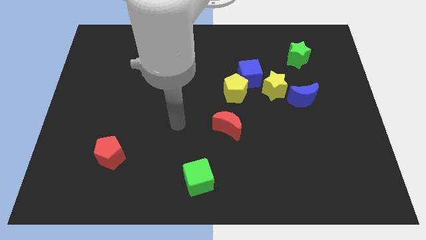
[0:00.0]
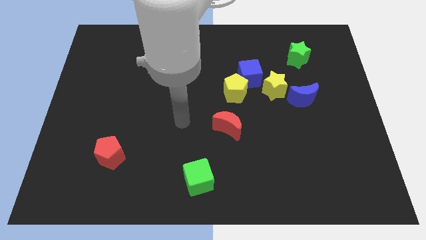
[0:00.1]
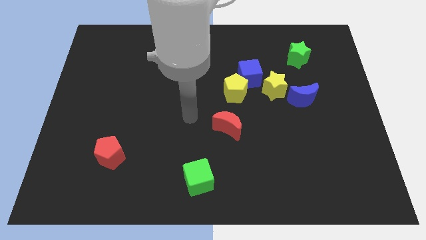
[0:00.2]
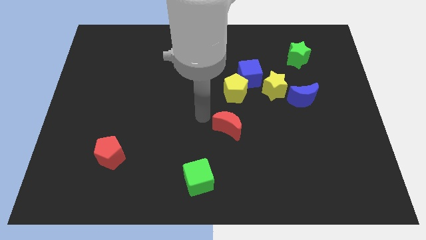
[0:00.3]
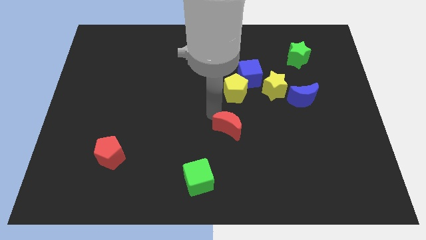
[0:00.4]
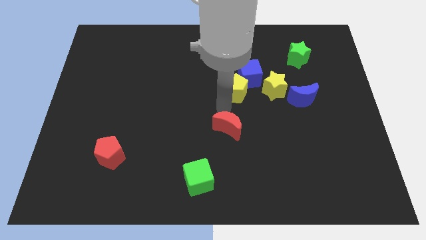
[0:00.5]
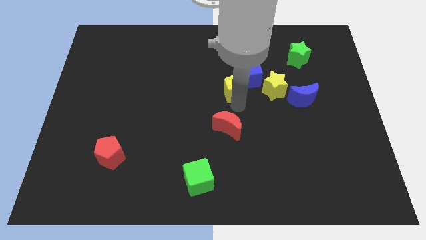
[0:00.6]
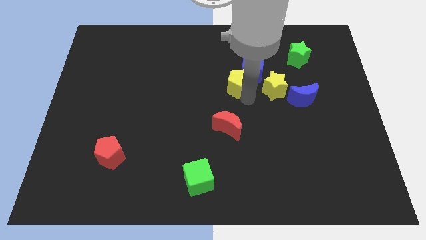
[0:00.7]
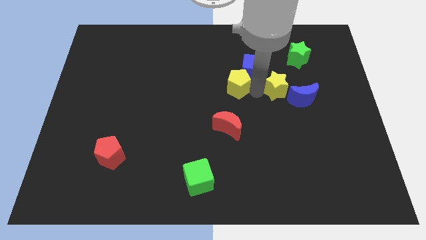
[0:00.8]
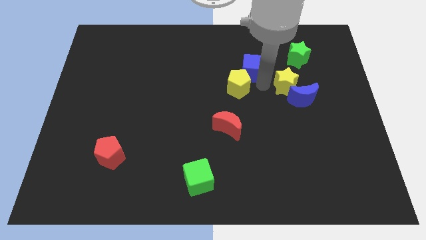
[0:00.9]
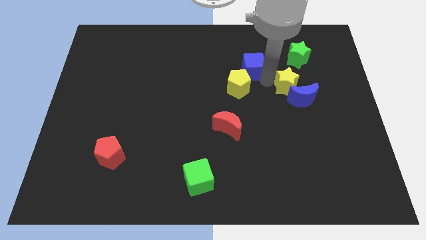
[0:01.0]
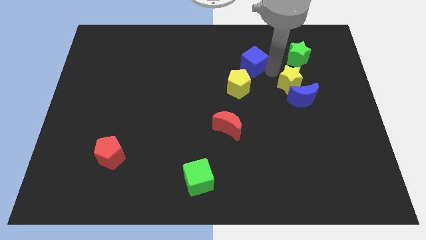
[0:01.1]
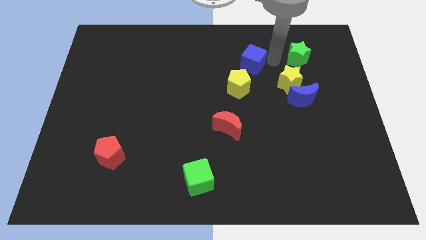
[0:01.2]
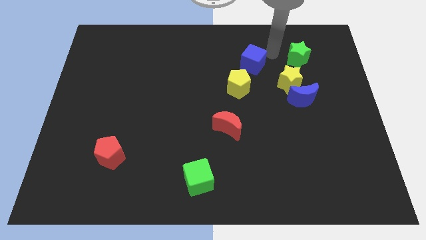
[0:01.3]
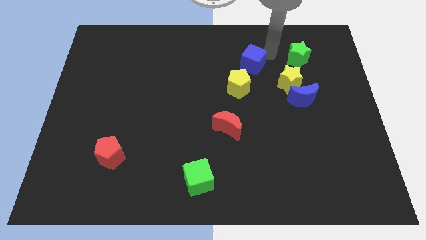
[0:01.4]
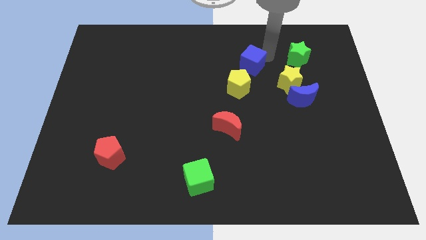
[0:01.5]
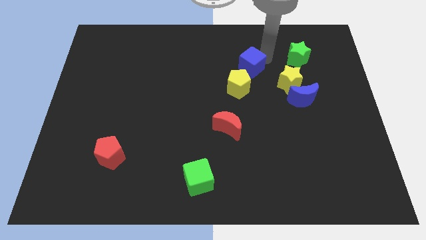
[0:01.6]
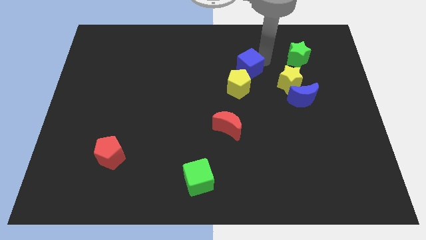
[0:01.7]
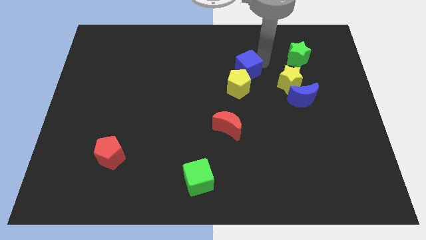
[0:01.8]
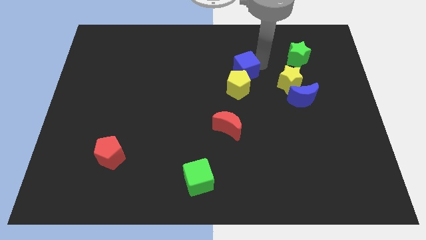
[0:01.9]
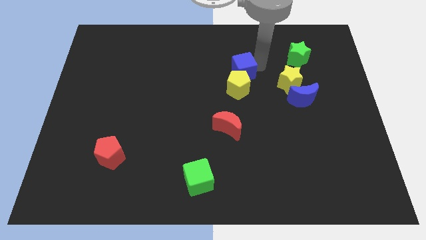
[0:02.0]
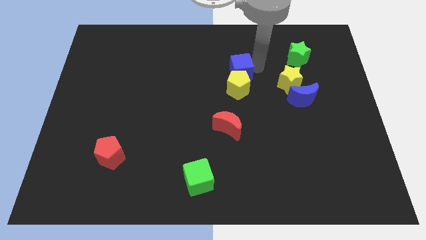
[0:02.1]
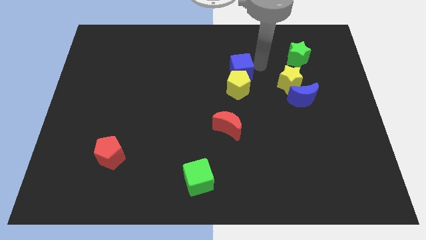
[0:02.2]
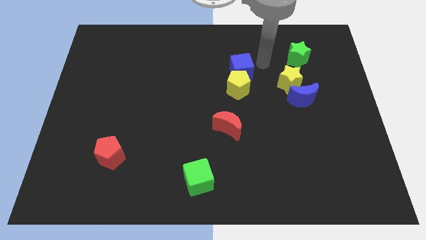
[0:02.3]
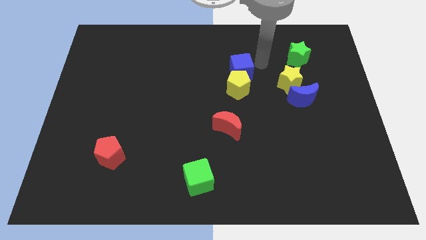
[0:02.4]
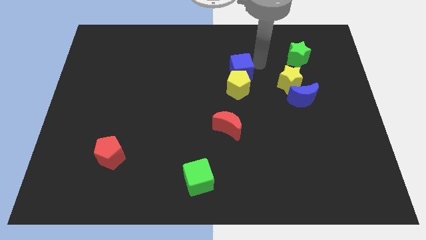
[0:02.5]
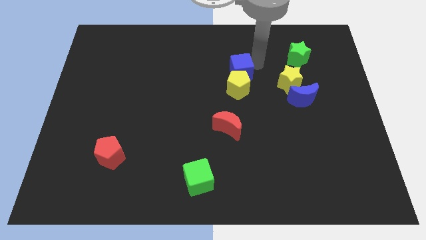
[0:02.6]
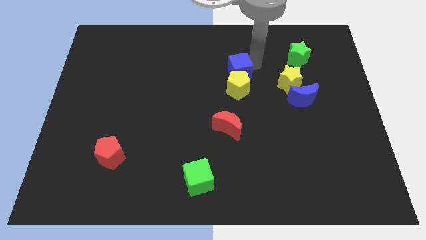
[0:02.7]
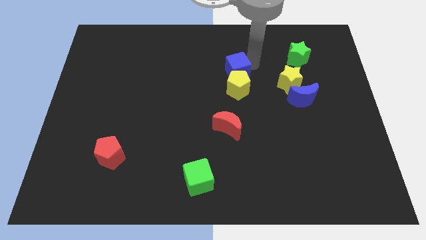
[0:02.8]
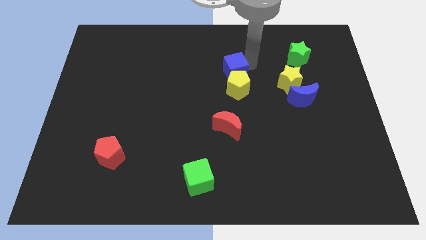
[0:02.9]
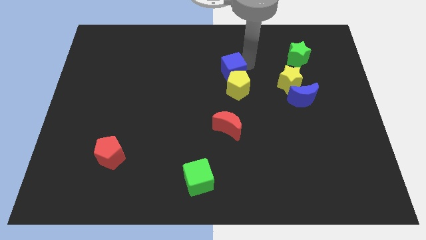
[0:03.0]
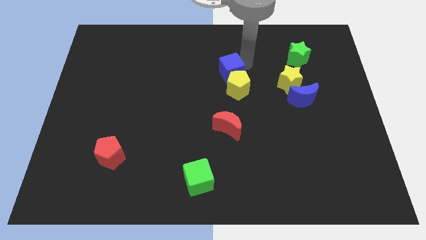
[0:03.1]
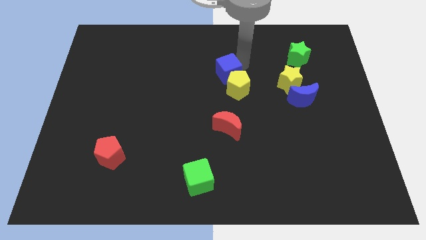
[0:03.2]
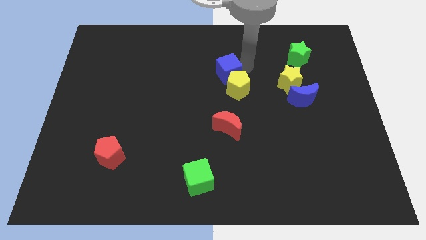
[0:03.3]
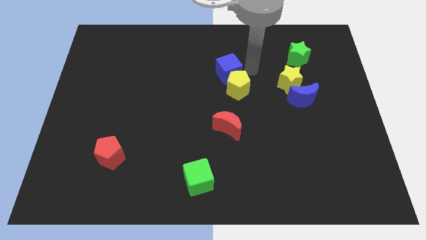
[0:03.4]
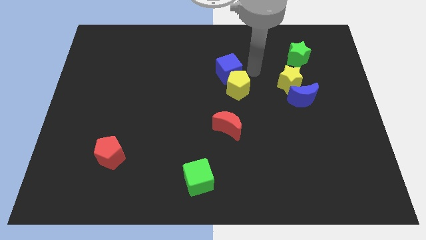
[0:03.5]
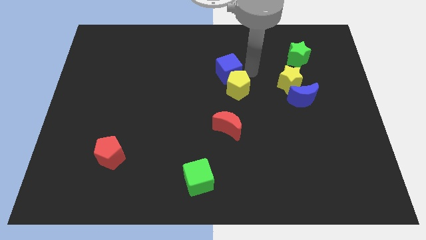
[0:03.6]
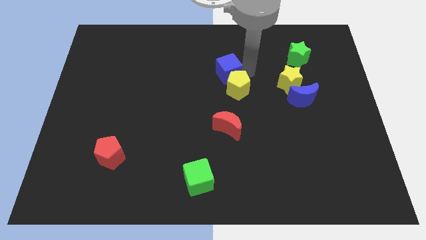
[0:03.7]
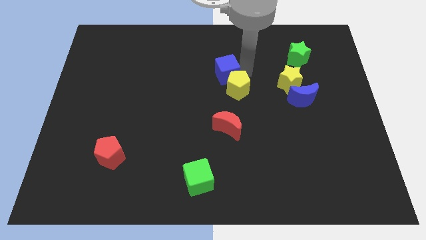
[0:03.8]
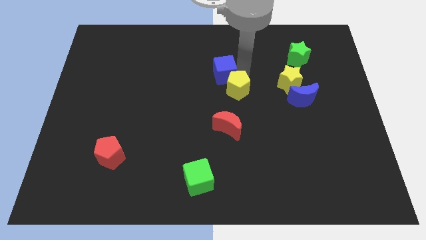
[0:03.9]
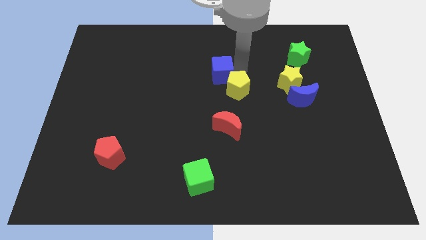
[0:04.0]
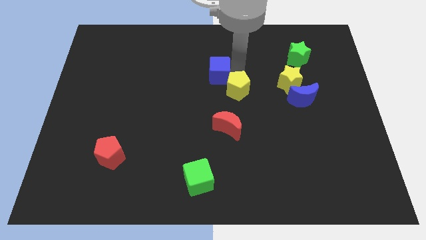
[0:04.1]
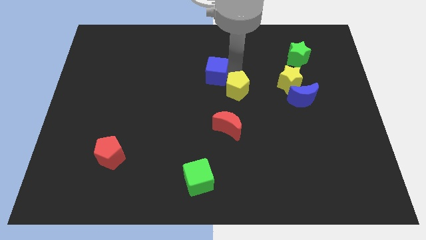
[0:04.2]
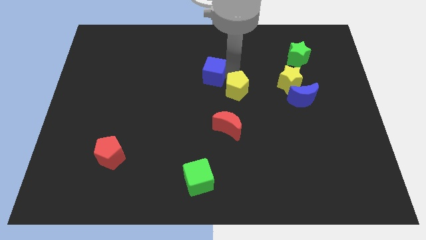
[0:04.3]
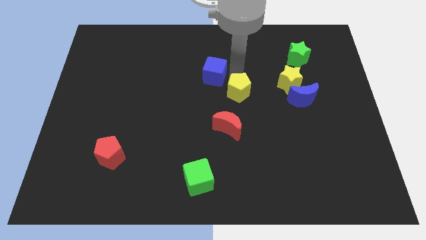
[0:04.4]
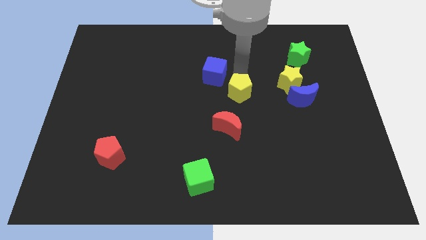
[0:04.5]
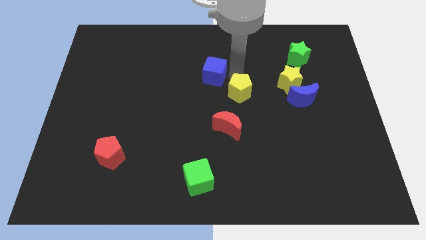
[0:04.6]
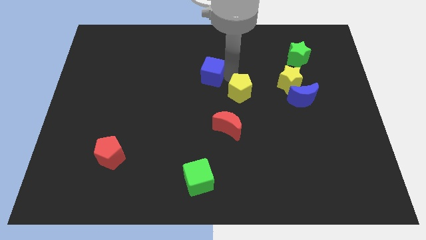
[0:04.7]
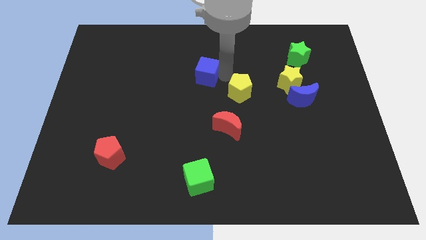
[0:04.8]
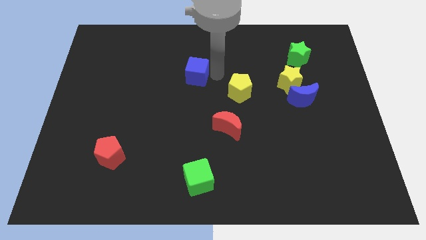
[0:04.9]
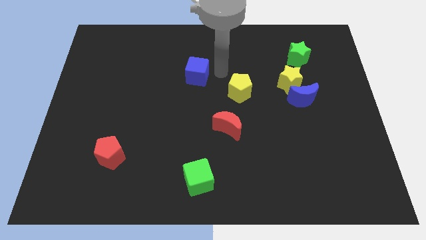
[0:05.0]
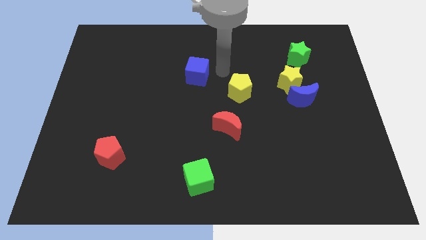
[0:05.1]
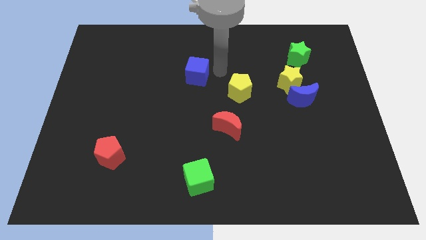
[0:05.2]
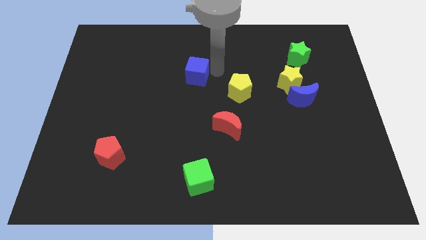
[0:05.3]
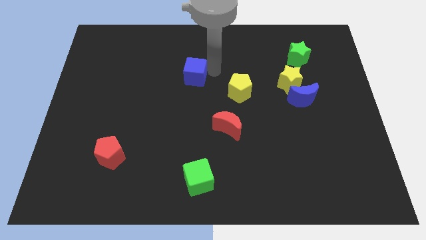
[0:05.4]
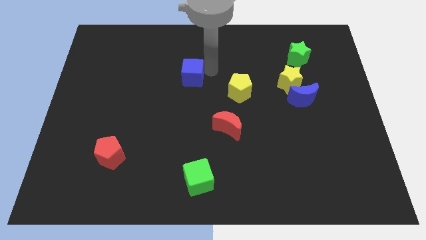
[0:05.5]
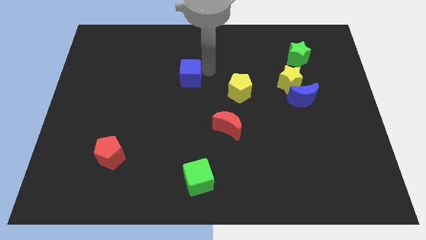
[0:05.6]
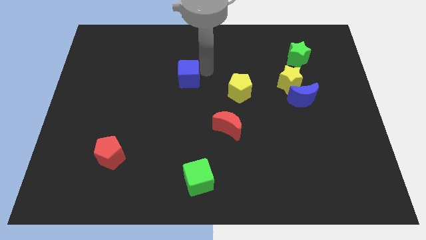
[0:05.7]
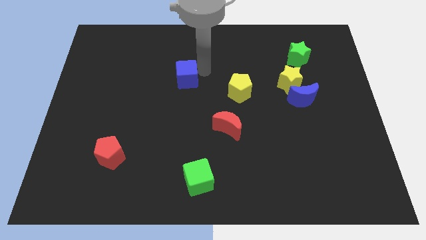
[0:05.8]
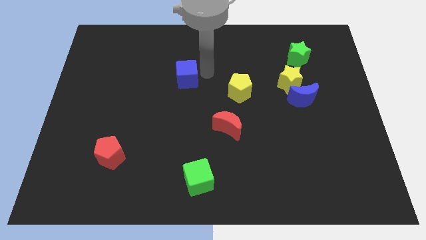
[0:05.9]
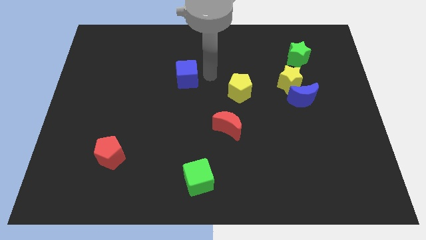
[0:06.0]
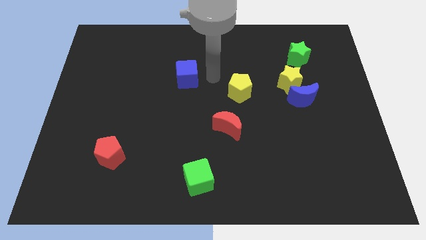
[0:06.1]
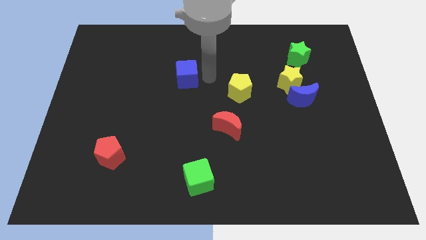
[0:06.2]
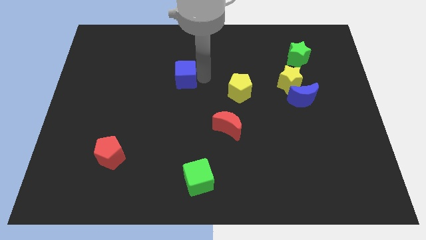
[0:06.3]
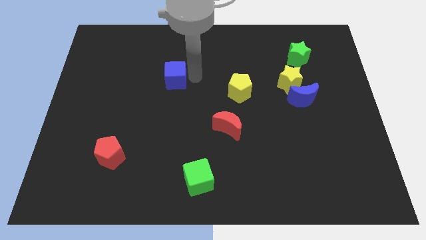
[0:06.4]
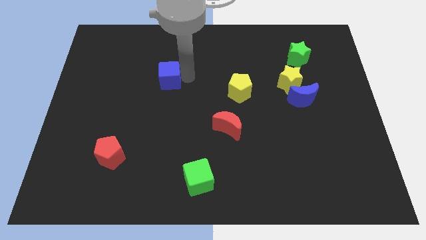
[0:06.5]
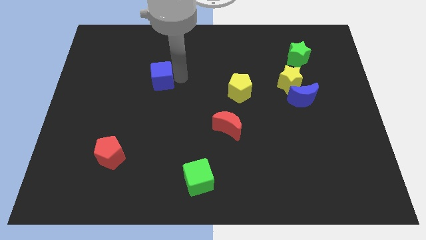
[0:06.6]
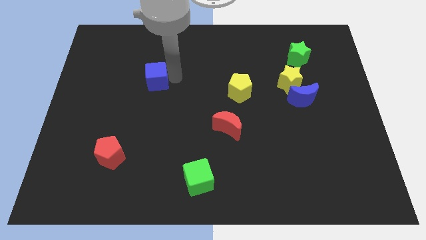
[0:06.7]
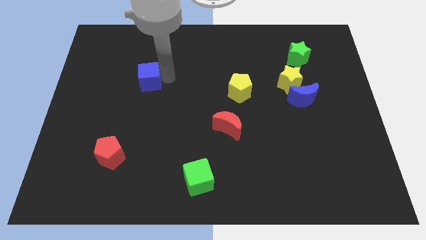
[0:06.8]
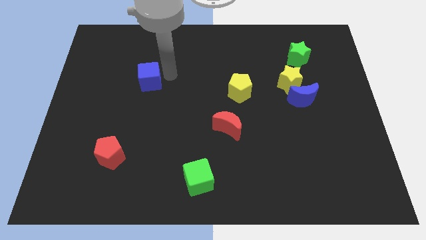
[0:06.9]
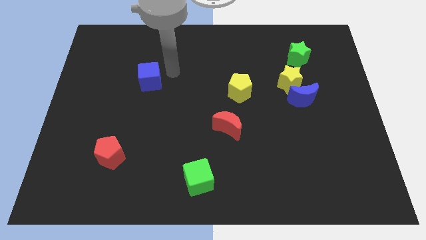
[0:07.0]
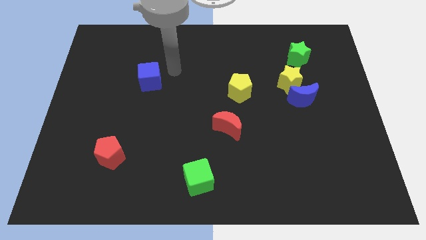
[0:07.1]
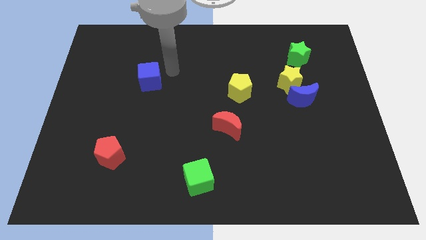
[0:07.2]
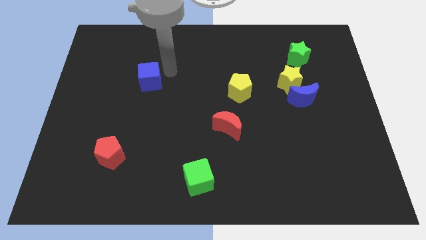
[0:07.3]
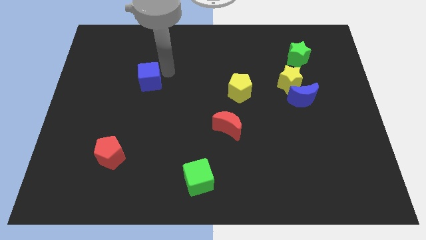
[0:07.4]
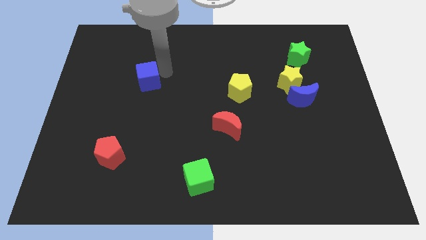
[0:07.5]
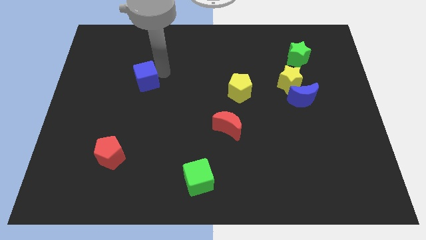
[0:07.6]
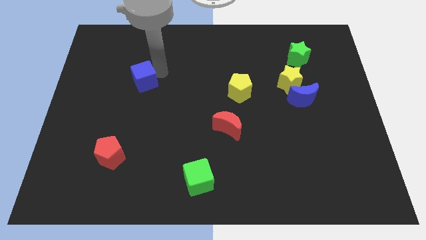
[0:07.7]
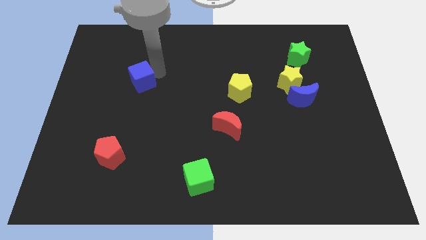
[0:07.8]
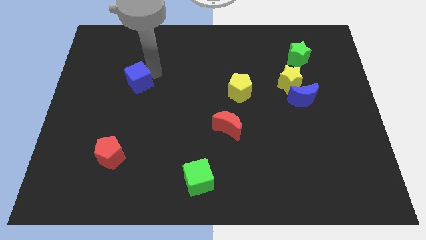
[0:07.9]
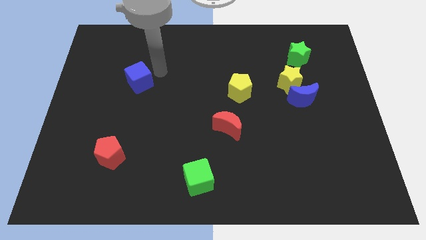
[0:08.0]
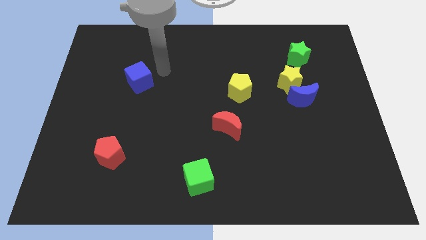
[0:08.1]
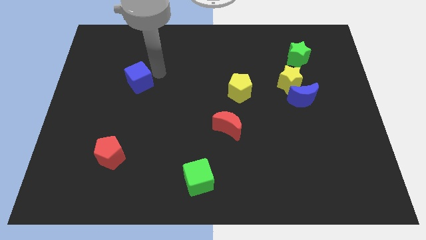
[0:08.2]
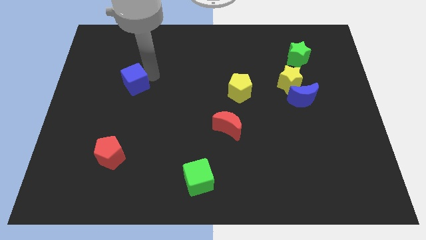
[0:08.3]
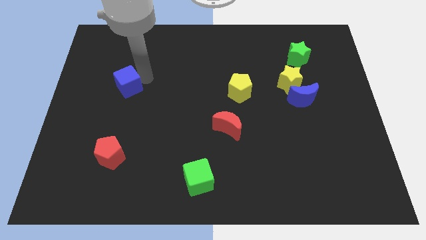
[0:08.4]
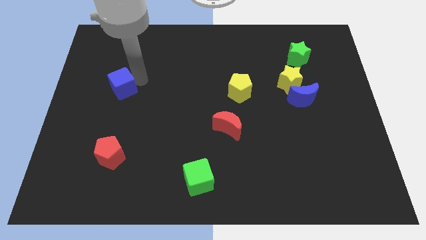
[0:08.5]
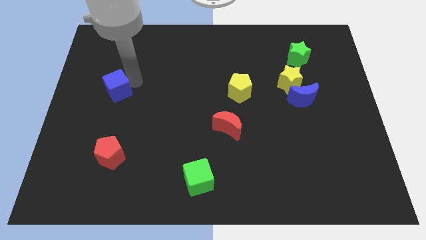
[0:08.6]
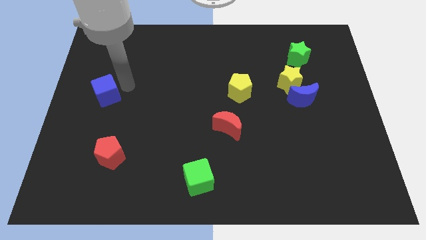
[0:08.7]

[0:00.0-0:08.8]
move the blue cube to the left side of the board
